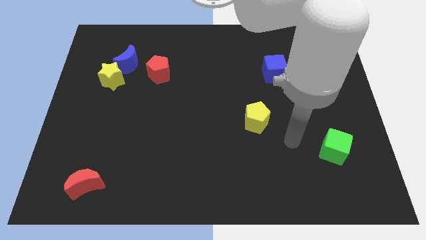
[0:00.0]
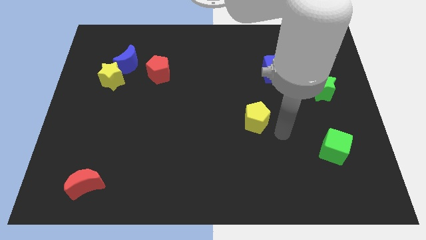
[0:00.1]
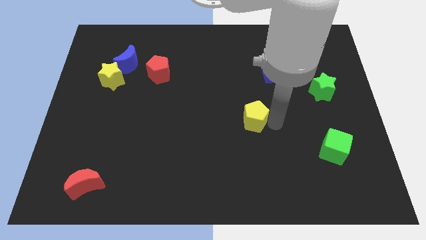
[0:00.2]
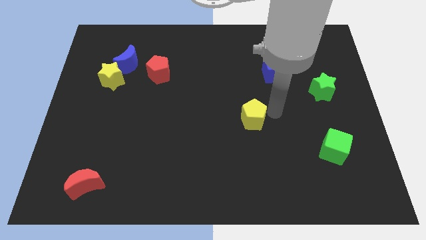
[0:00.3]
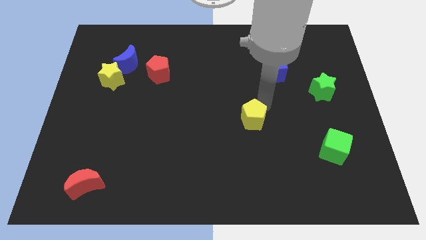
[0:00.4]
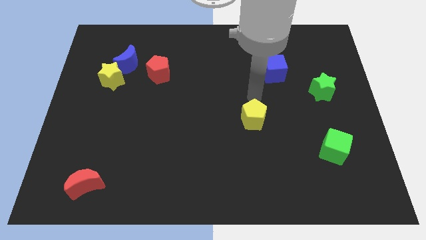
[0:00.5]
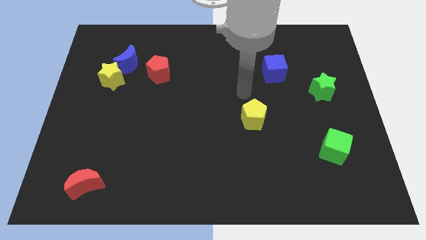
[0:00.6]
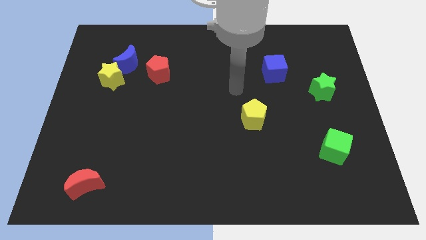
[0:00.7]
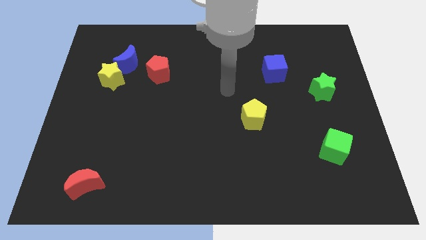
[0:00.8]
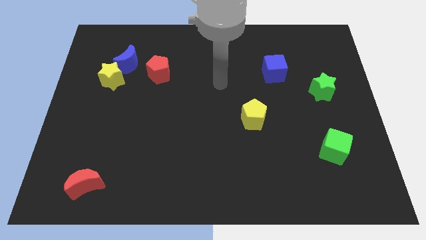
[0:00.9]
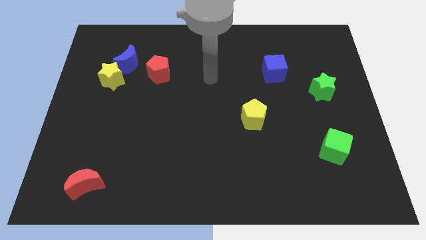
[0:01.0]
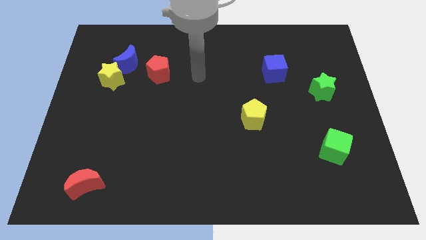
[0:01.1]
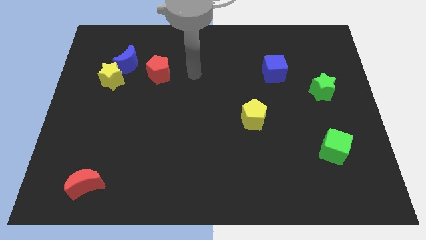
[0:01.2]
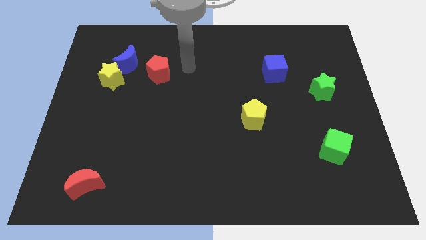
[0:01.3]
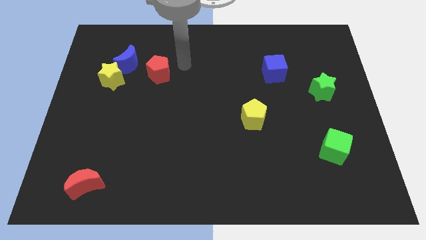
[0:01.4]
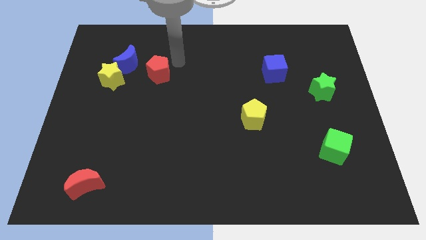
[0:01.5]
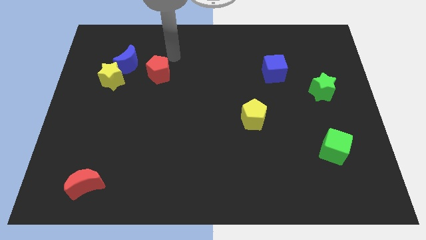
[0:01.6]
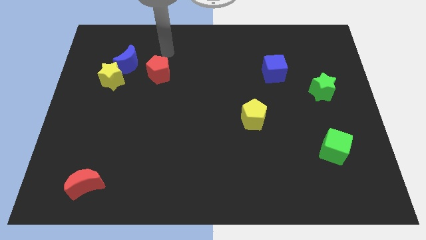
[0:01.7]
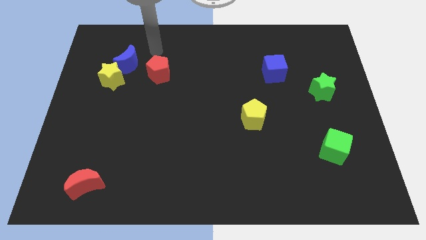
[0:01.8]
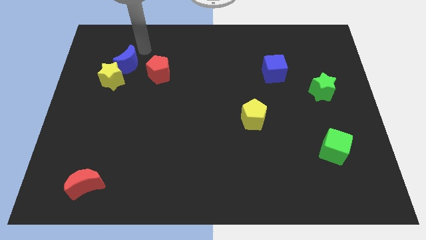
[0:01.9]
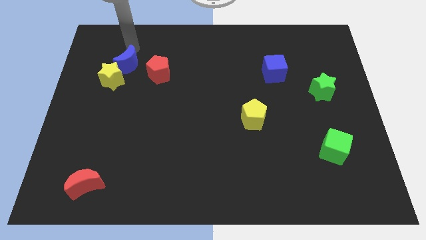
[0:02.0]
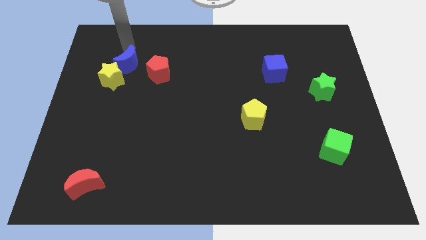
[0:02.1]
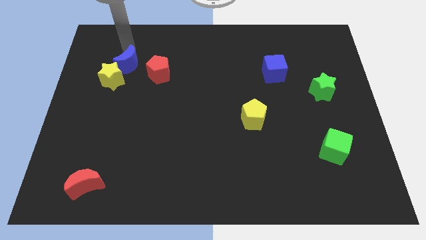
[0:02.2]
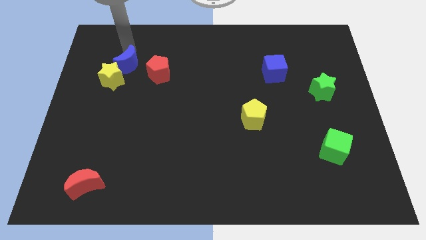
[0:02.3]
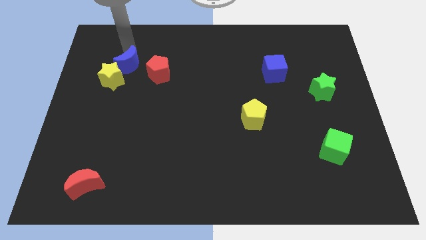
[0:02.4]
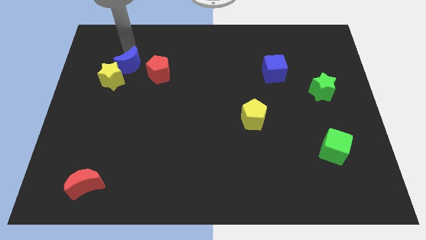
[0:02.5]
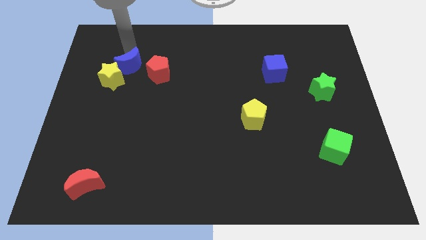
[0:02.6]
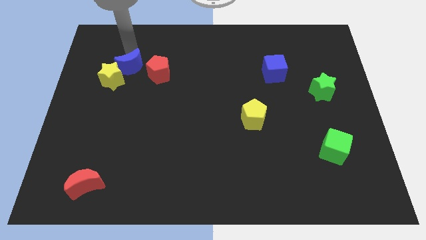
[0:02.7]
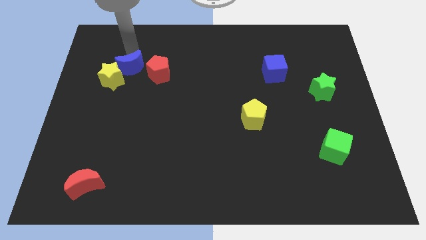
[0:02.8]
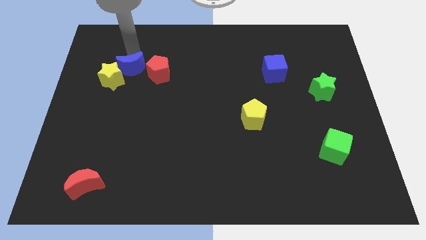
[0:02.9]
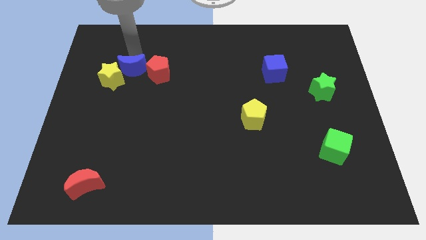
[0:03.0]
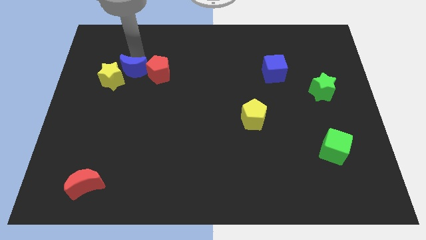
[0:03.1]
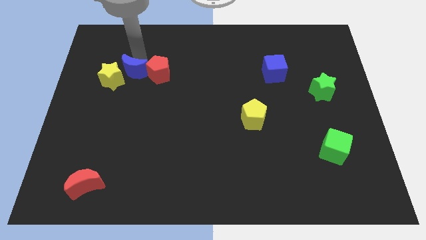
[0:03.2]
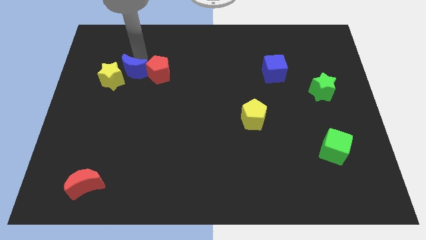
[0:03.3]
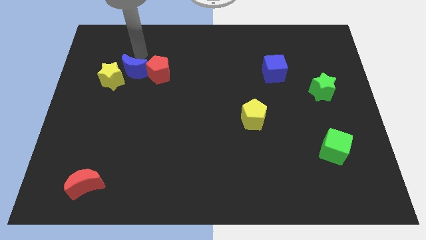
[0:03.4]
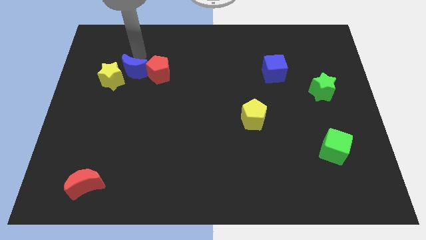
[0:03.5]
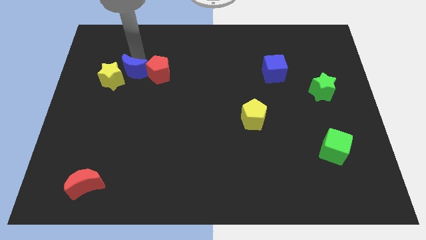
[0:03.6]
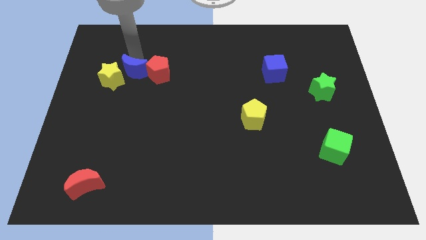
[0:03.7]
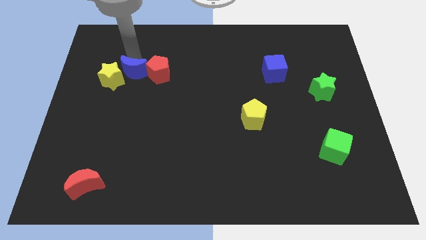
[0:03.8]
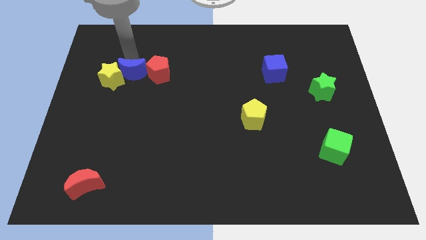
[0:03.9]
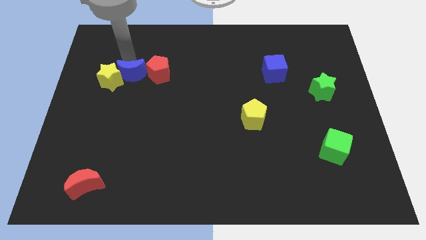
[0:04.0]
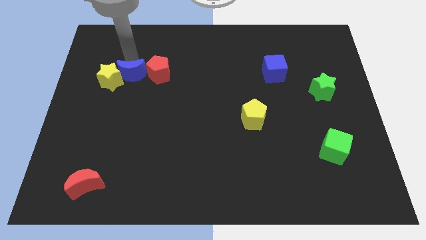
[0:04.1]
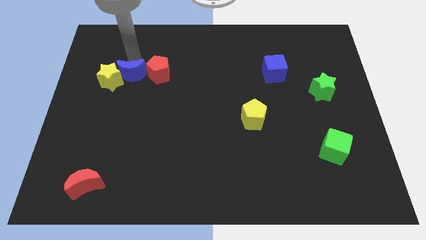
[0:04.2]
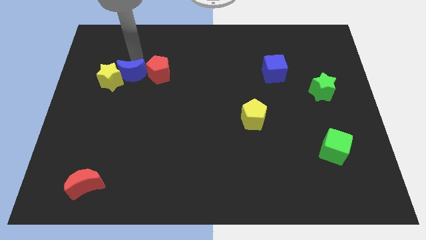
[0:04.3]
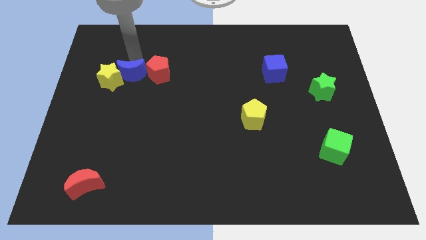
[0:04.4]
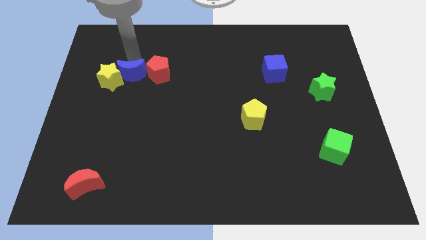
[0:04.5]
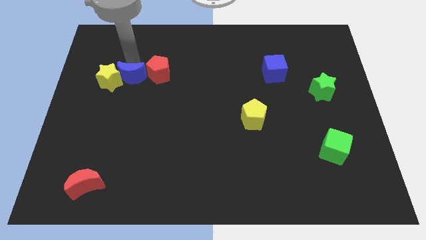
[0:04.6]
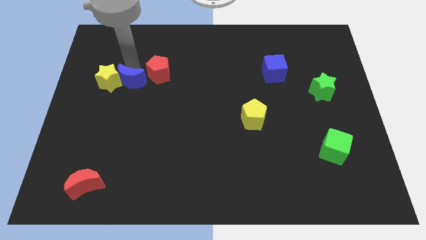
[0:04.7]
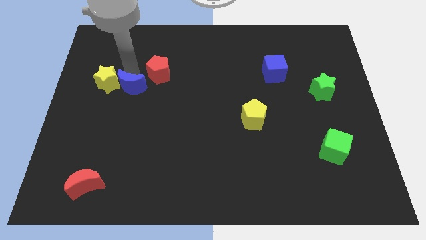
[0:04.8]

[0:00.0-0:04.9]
slightly slide the blue moon down

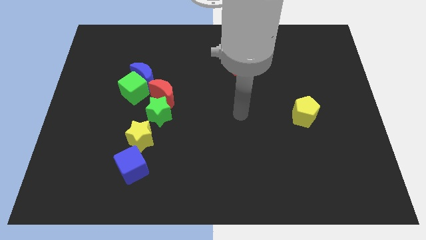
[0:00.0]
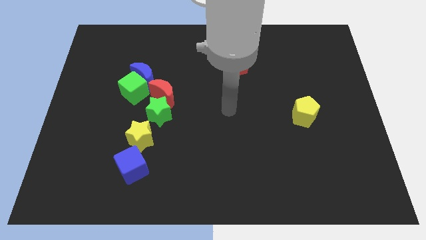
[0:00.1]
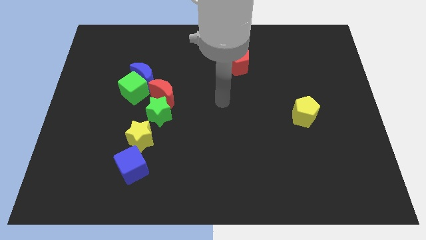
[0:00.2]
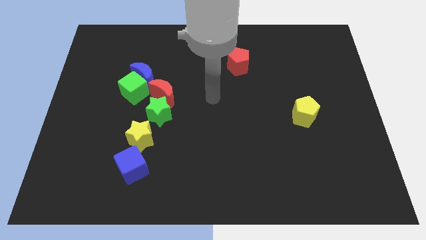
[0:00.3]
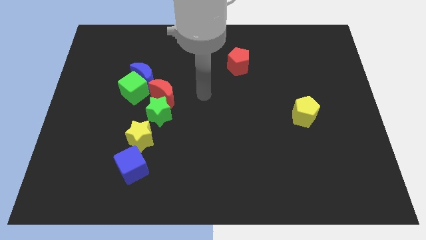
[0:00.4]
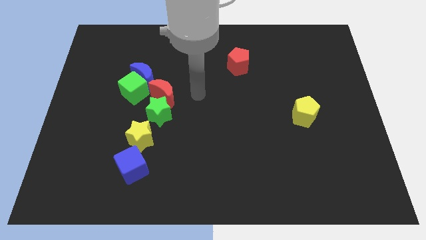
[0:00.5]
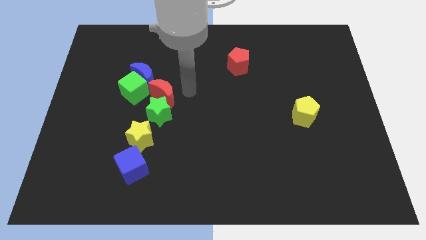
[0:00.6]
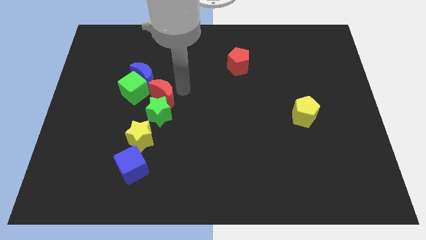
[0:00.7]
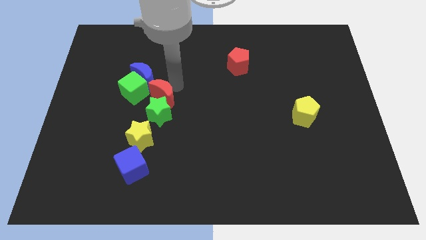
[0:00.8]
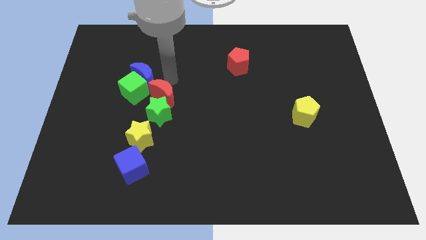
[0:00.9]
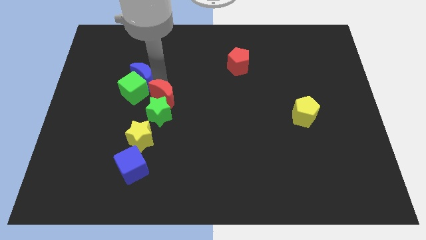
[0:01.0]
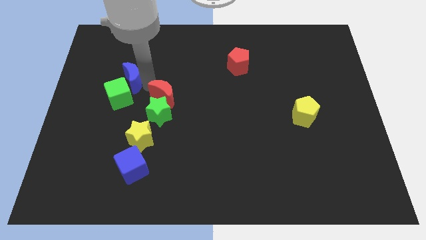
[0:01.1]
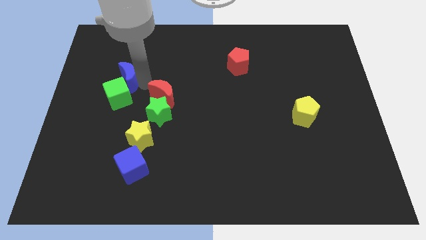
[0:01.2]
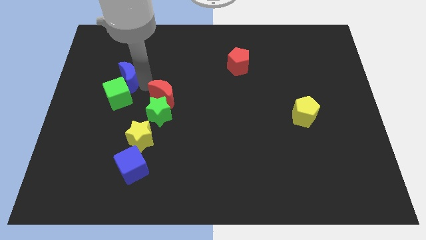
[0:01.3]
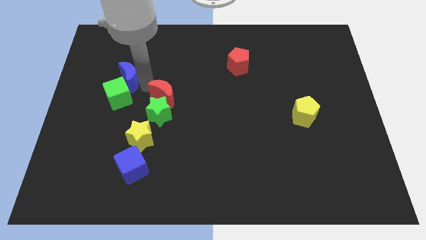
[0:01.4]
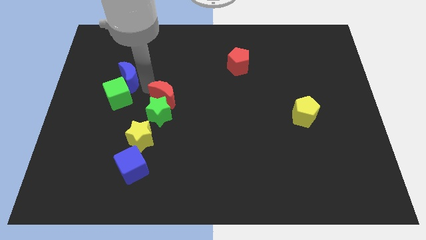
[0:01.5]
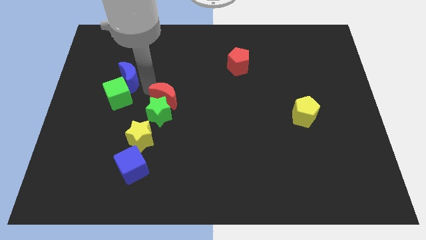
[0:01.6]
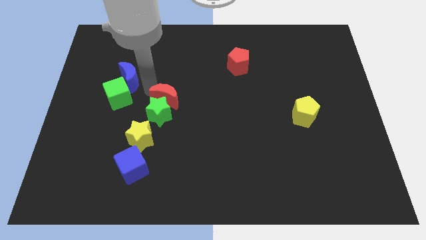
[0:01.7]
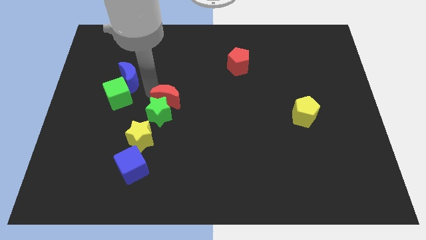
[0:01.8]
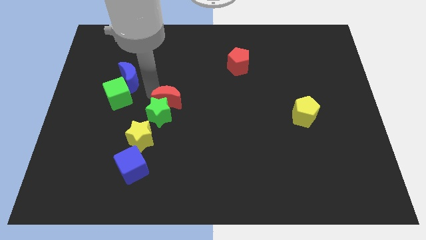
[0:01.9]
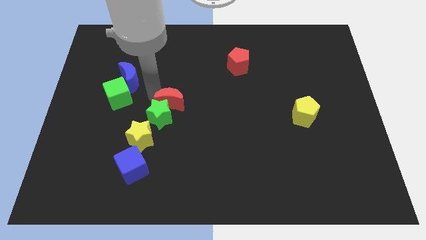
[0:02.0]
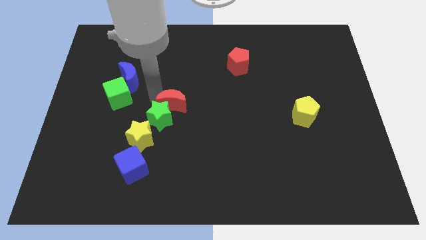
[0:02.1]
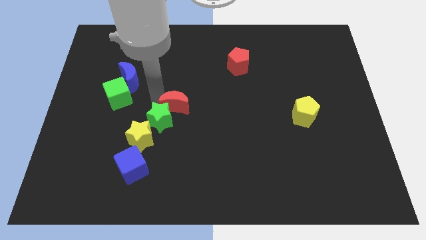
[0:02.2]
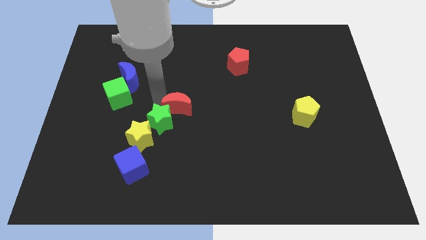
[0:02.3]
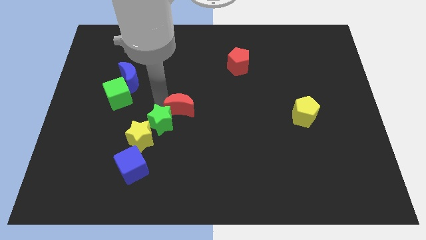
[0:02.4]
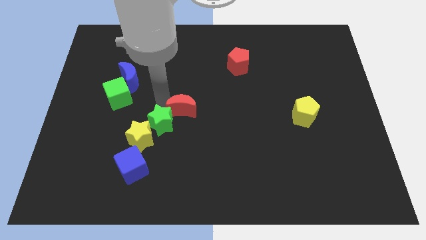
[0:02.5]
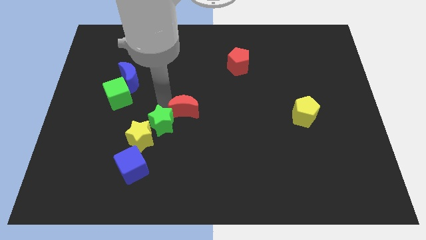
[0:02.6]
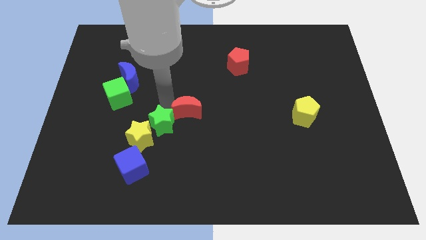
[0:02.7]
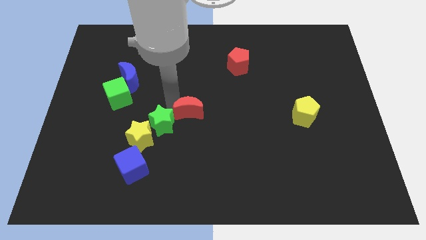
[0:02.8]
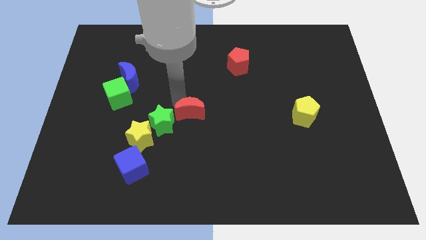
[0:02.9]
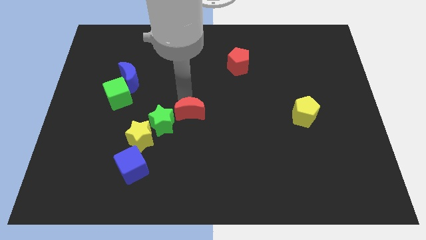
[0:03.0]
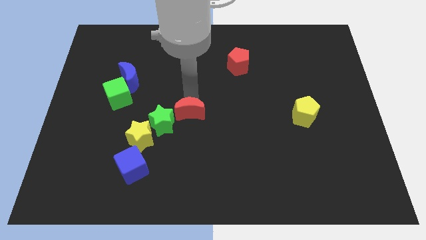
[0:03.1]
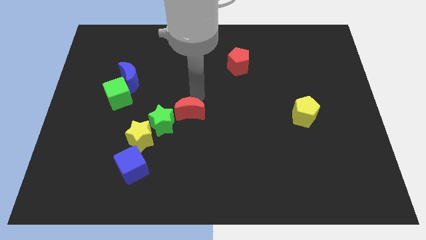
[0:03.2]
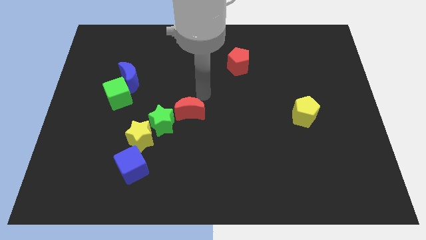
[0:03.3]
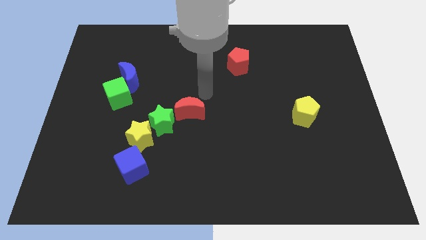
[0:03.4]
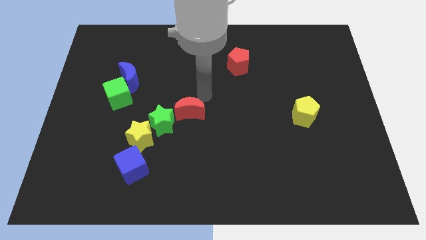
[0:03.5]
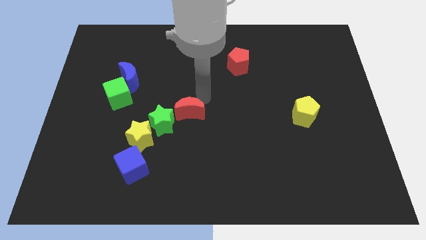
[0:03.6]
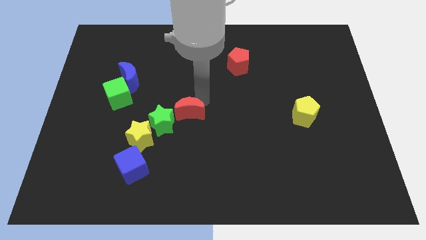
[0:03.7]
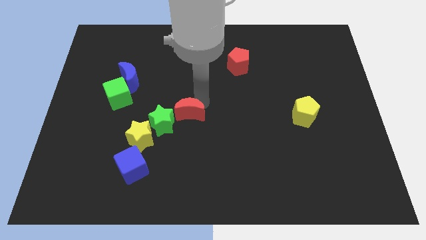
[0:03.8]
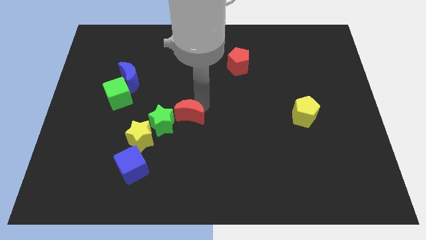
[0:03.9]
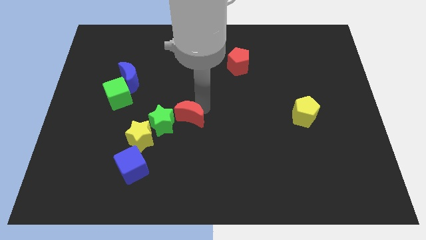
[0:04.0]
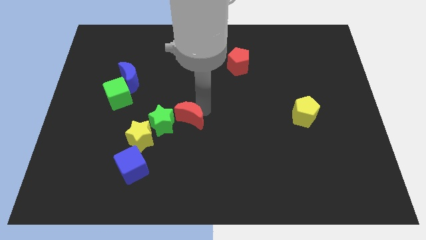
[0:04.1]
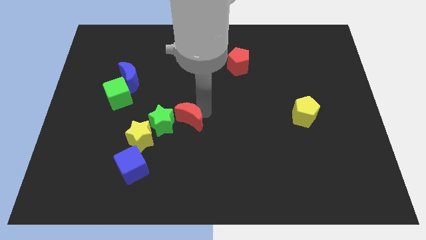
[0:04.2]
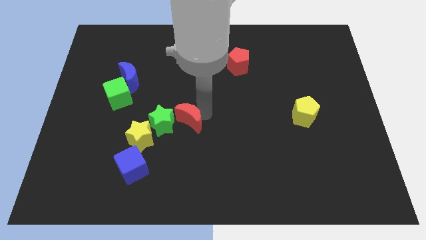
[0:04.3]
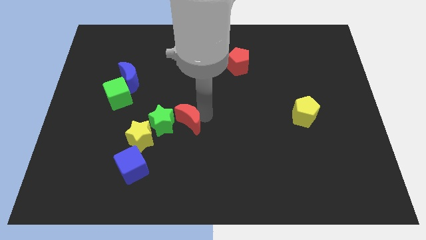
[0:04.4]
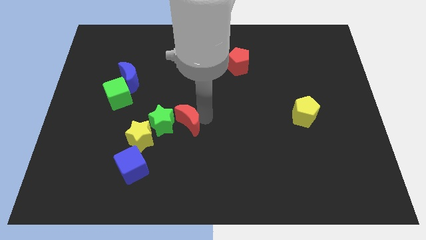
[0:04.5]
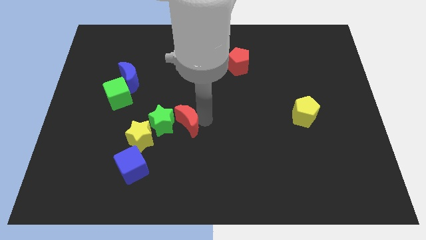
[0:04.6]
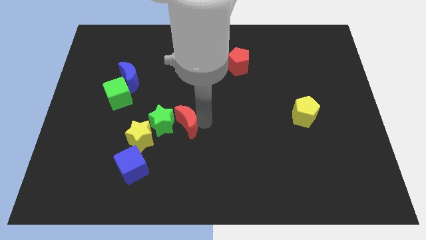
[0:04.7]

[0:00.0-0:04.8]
slide the red moon downwards a little
